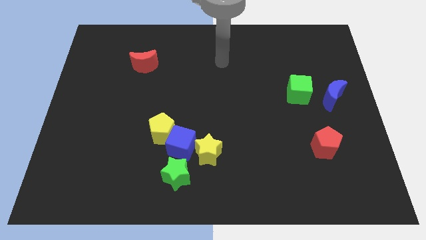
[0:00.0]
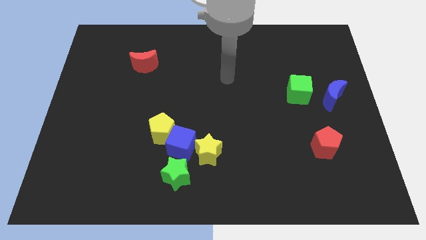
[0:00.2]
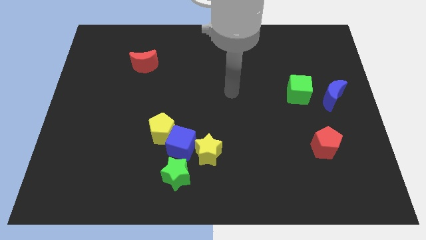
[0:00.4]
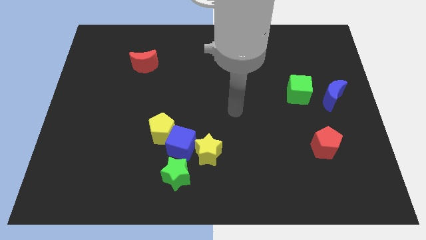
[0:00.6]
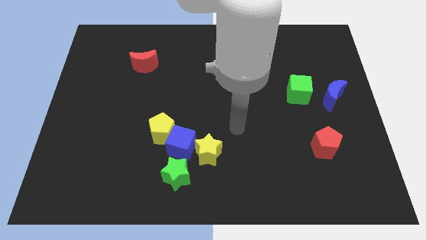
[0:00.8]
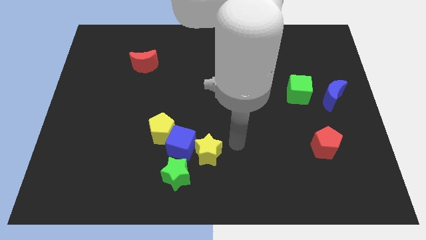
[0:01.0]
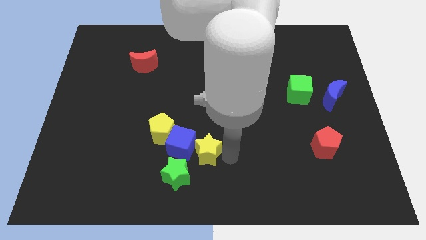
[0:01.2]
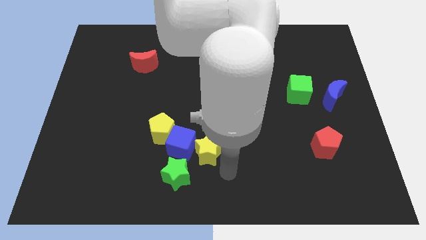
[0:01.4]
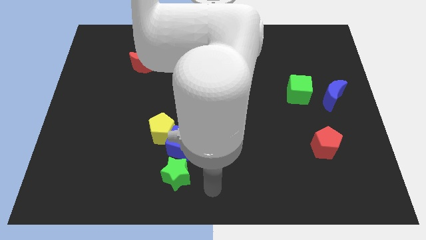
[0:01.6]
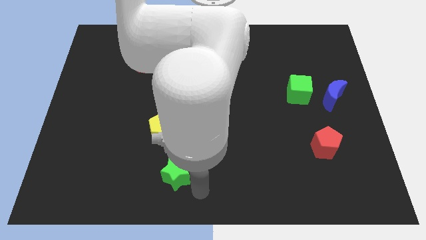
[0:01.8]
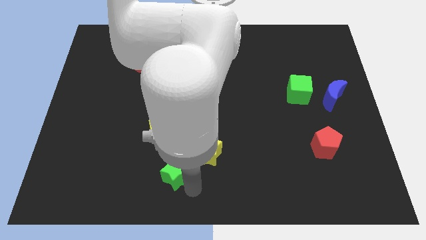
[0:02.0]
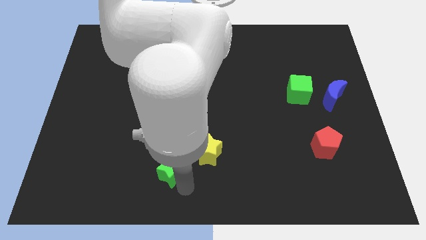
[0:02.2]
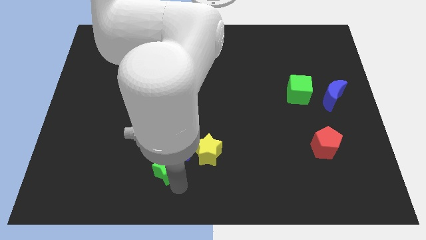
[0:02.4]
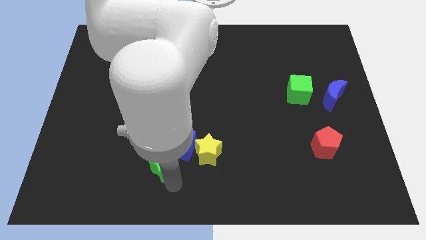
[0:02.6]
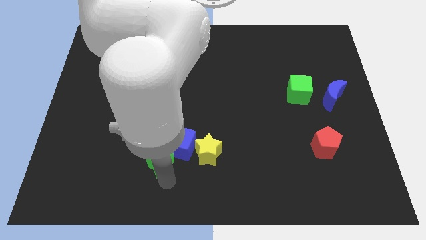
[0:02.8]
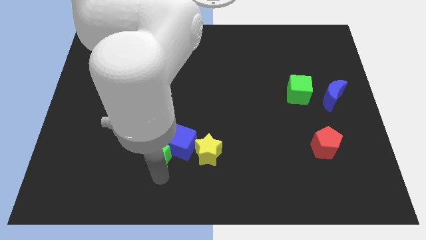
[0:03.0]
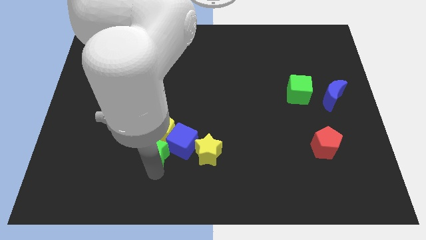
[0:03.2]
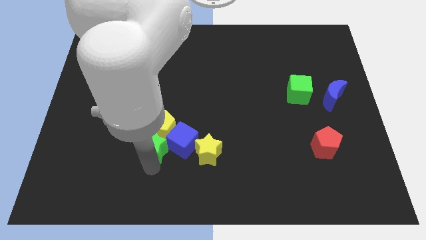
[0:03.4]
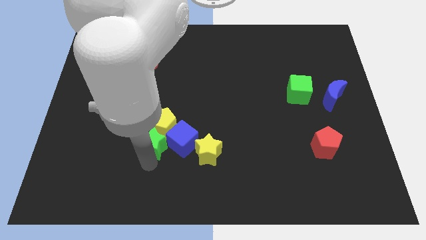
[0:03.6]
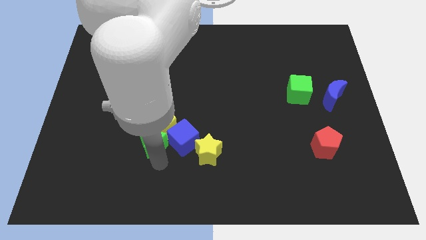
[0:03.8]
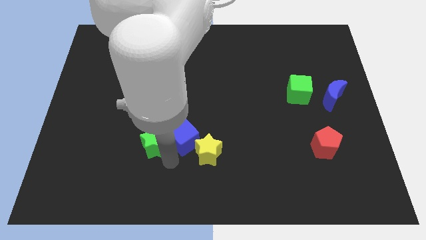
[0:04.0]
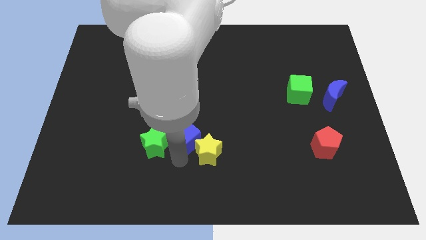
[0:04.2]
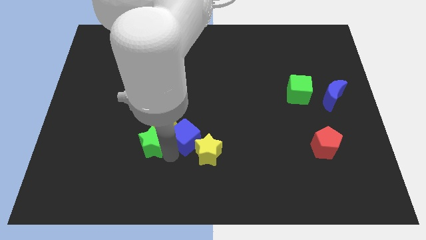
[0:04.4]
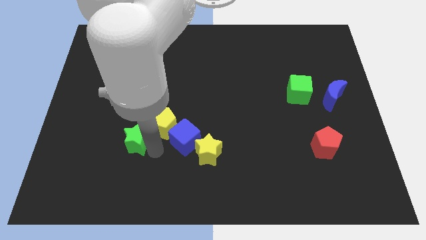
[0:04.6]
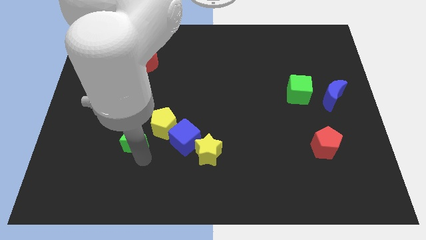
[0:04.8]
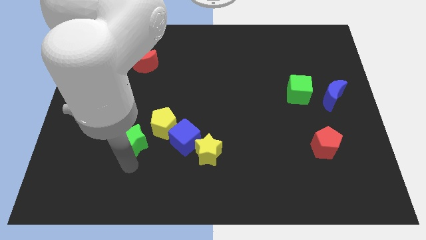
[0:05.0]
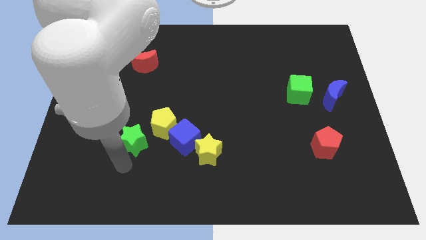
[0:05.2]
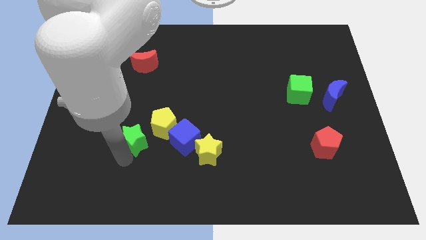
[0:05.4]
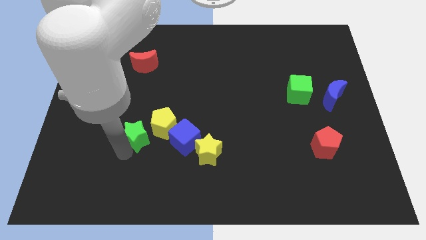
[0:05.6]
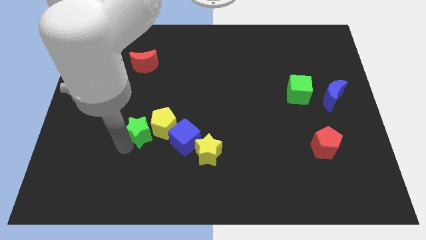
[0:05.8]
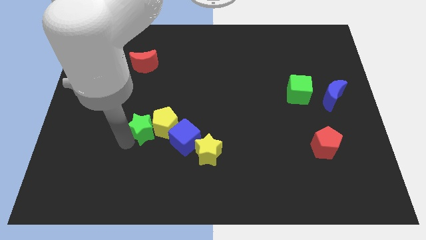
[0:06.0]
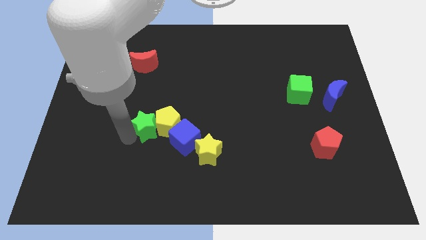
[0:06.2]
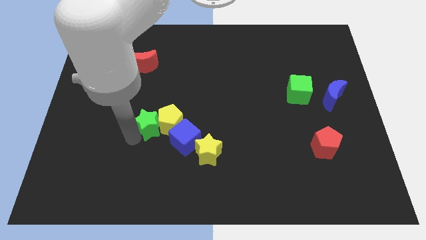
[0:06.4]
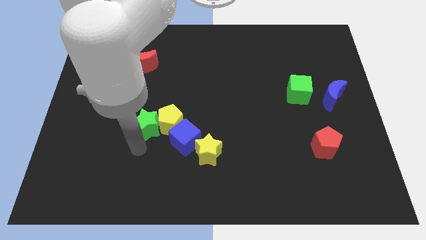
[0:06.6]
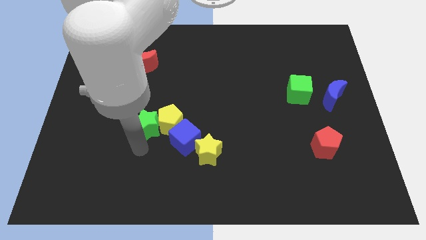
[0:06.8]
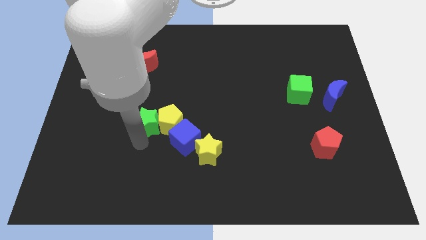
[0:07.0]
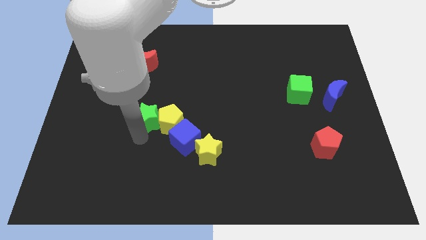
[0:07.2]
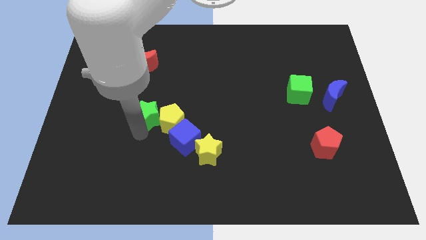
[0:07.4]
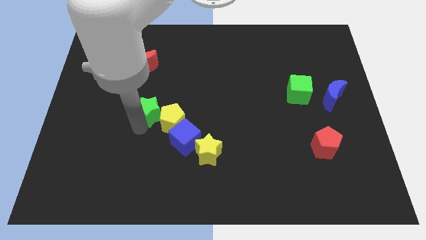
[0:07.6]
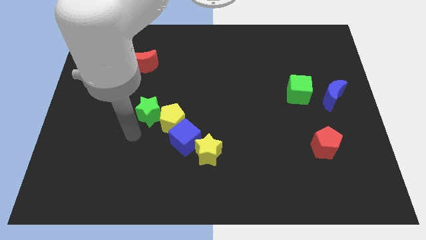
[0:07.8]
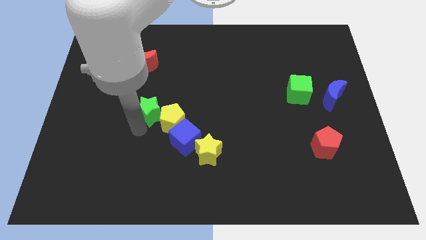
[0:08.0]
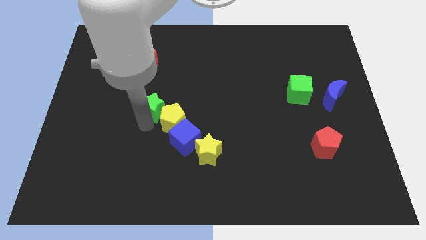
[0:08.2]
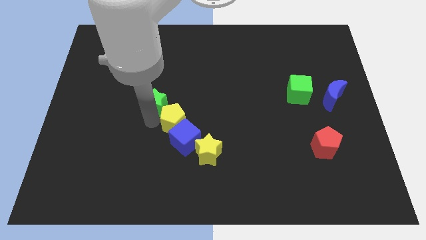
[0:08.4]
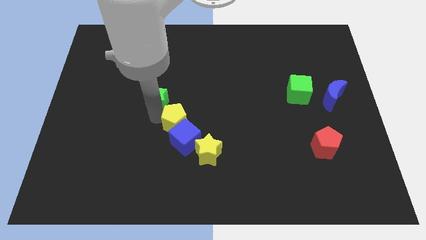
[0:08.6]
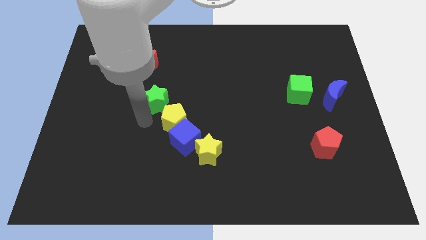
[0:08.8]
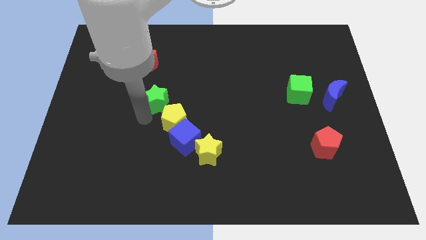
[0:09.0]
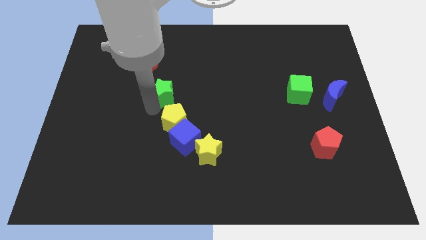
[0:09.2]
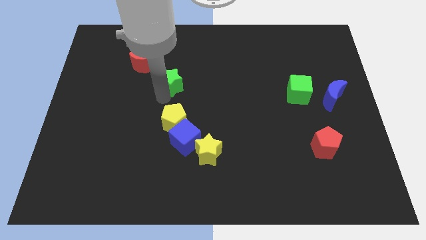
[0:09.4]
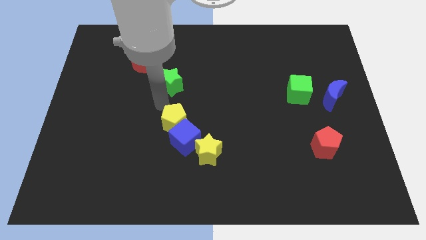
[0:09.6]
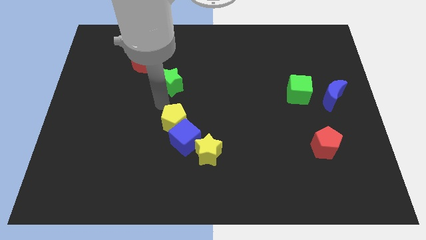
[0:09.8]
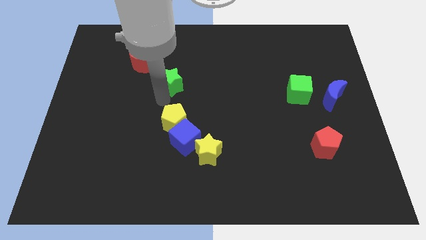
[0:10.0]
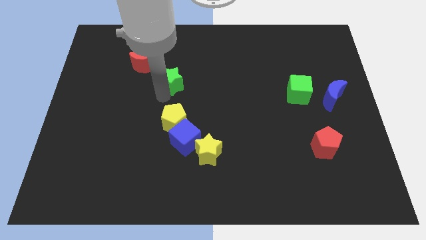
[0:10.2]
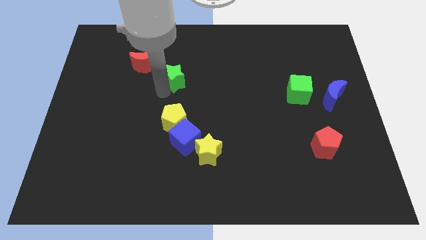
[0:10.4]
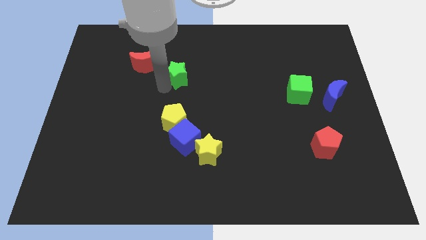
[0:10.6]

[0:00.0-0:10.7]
push the green star to the right side of the red moon

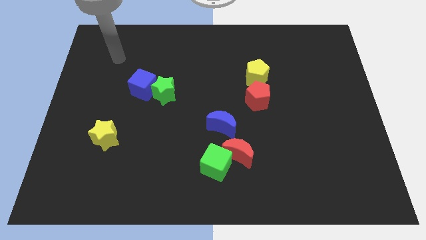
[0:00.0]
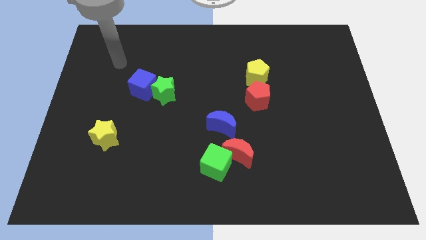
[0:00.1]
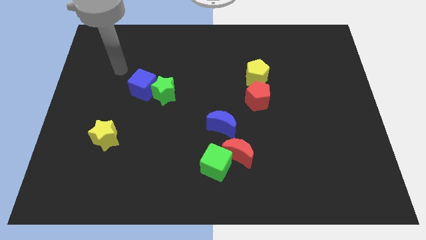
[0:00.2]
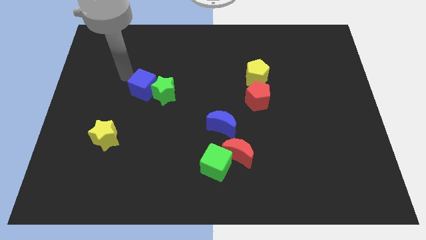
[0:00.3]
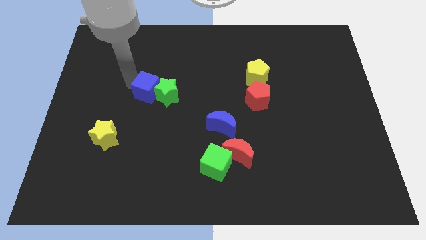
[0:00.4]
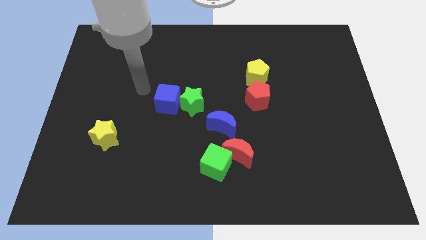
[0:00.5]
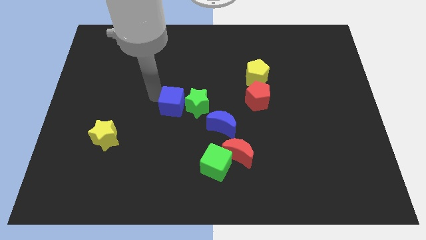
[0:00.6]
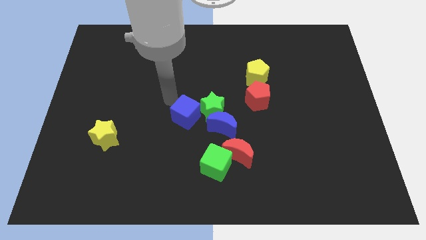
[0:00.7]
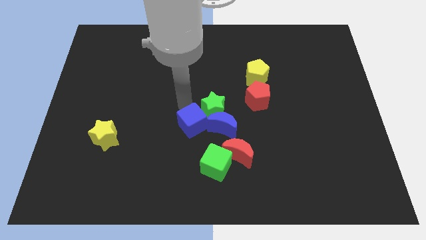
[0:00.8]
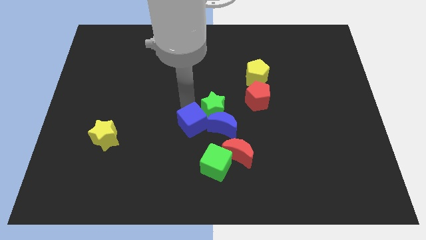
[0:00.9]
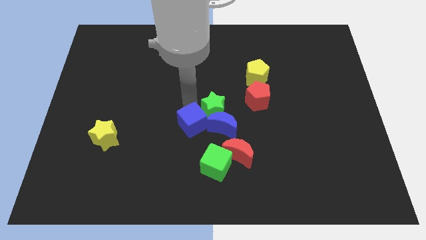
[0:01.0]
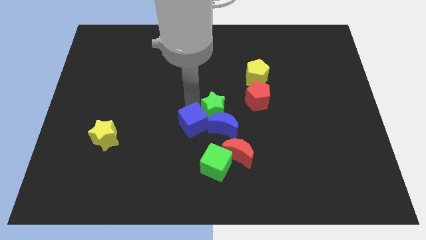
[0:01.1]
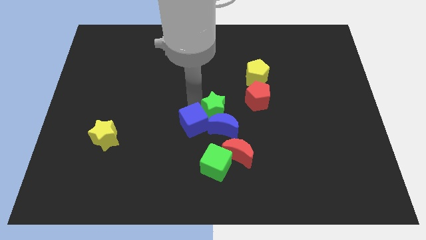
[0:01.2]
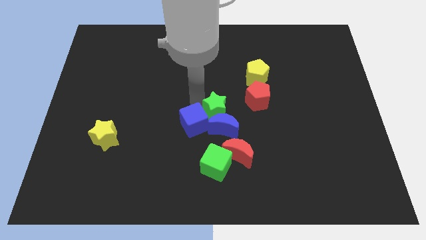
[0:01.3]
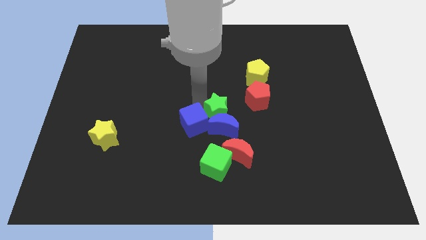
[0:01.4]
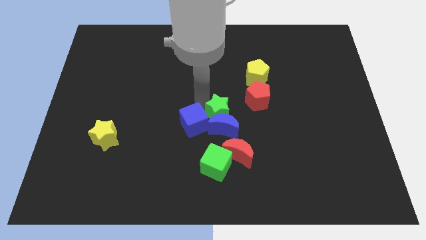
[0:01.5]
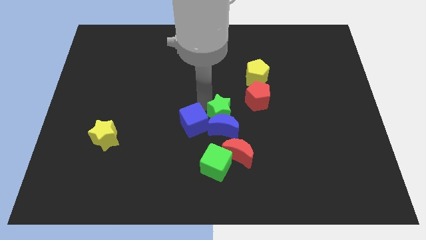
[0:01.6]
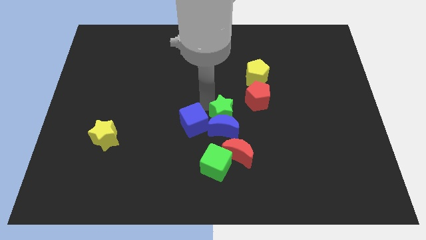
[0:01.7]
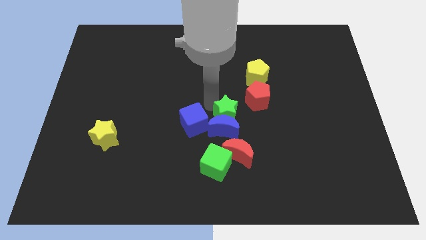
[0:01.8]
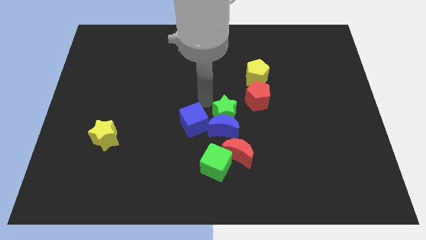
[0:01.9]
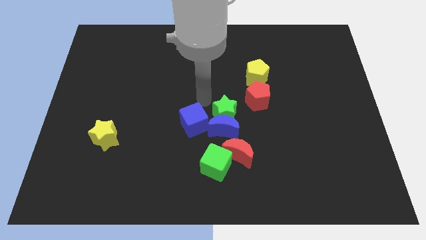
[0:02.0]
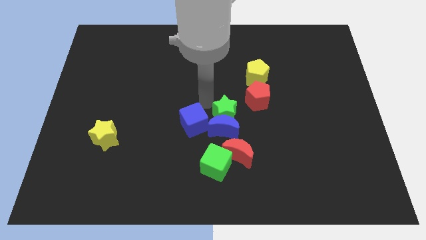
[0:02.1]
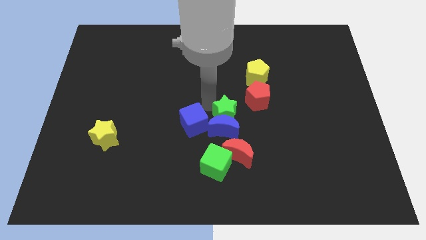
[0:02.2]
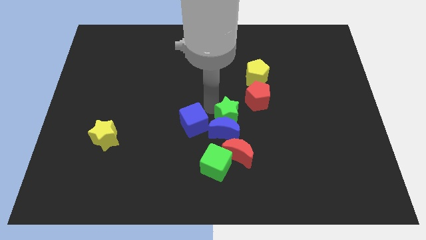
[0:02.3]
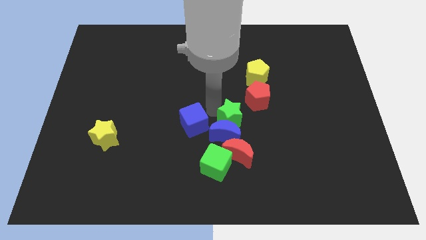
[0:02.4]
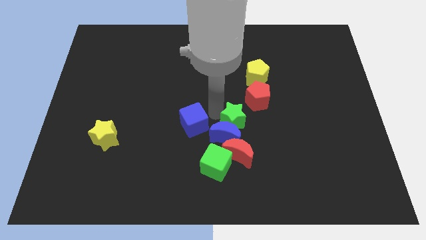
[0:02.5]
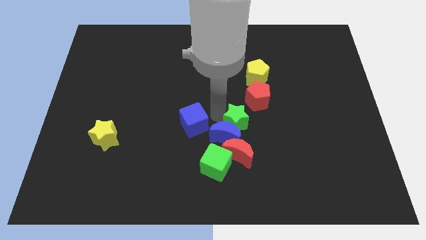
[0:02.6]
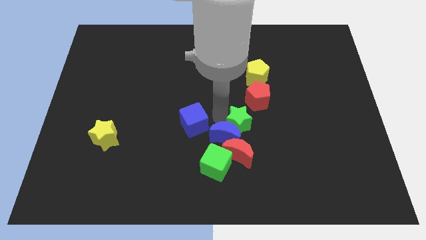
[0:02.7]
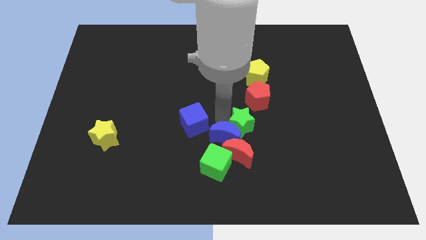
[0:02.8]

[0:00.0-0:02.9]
put the green star diagonally up and to the right of the red moon
